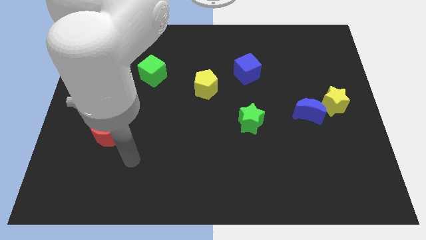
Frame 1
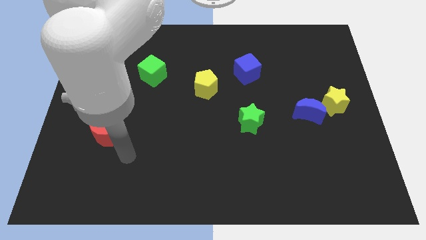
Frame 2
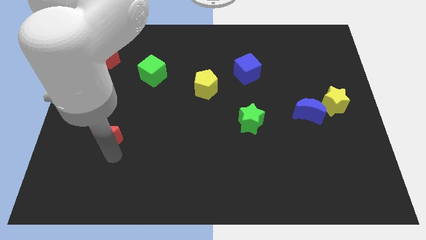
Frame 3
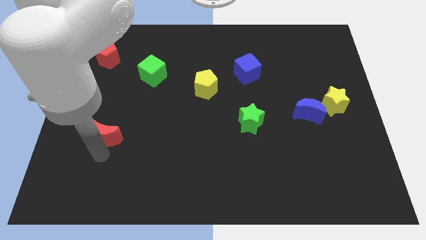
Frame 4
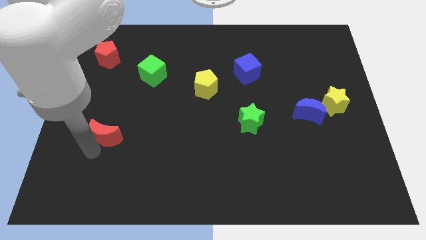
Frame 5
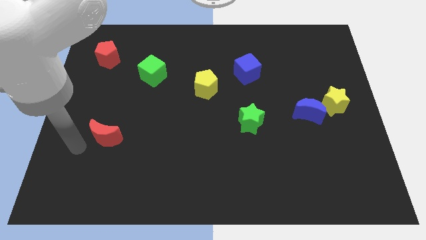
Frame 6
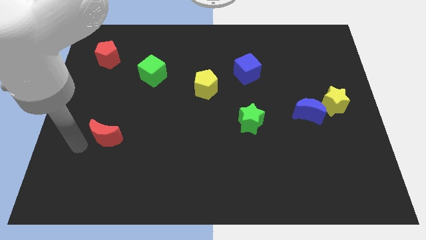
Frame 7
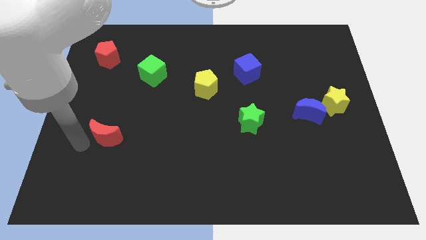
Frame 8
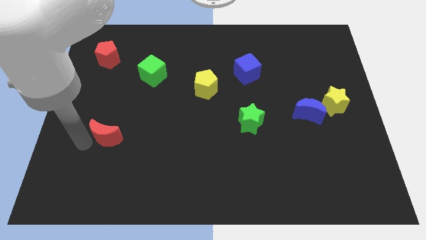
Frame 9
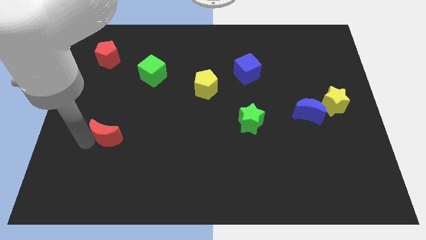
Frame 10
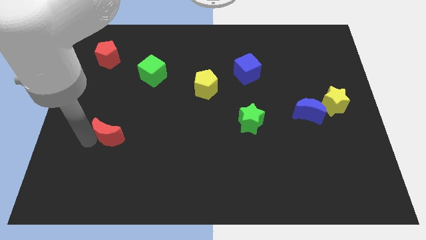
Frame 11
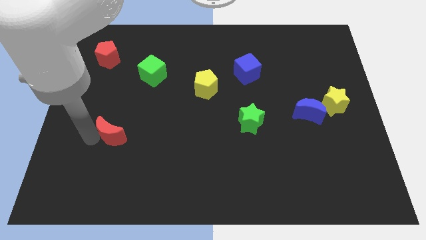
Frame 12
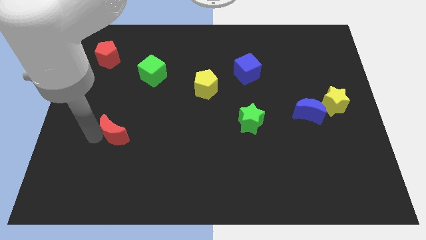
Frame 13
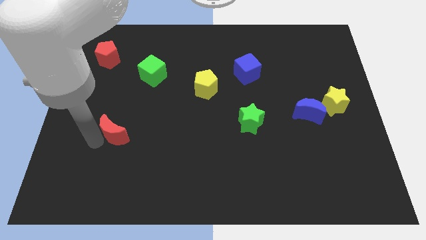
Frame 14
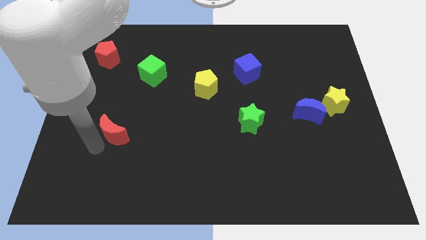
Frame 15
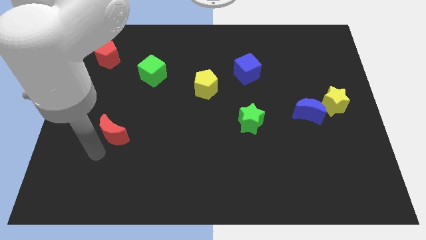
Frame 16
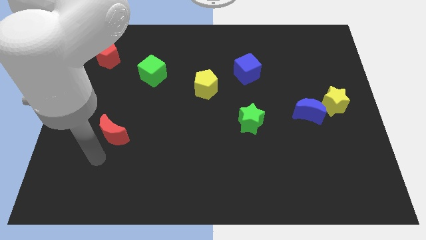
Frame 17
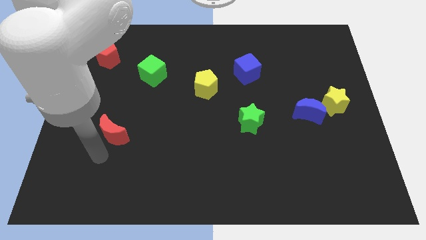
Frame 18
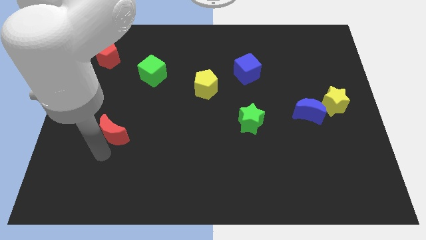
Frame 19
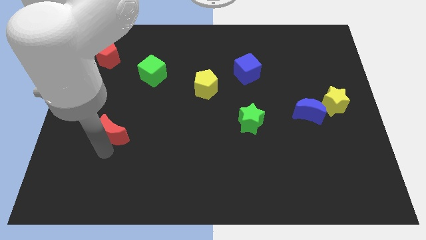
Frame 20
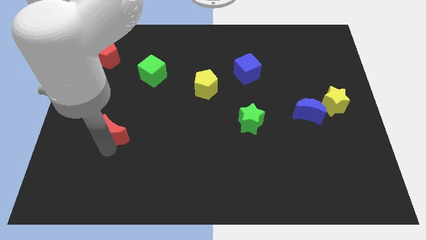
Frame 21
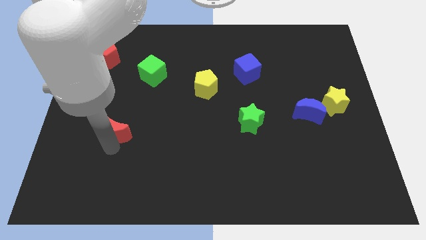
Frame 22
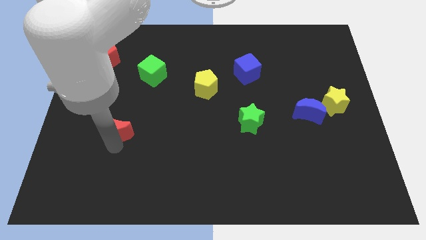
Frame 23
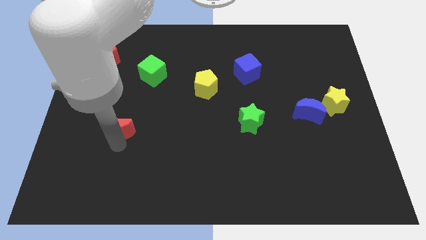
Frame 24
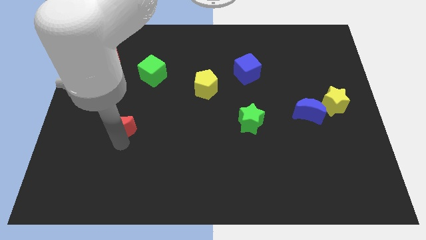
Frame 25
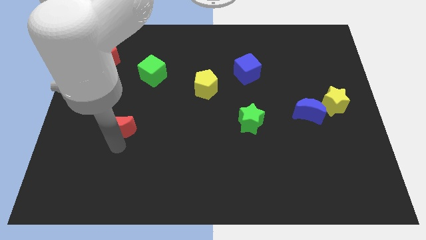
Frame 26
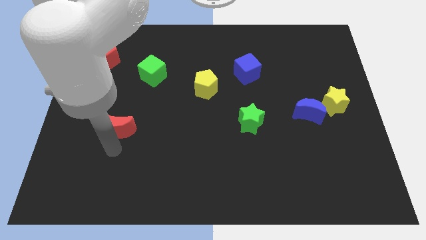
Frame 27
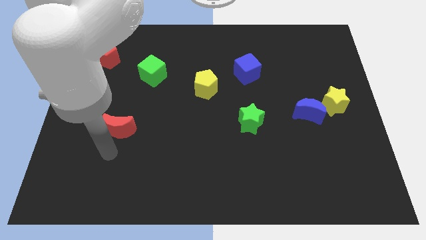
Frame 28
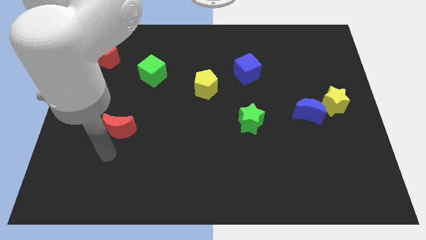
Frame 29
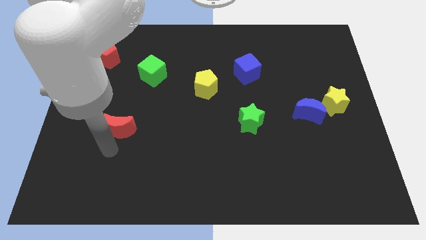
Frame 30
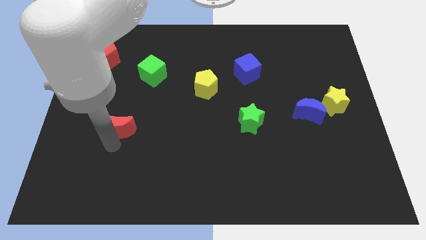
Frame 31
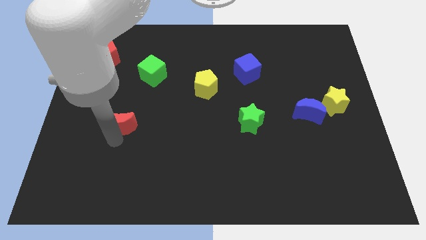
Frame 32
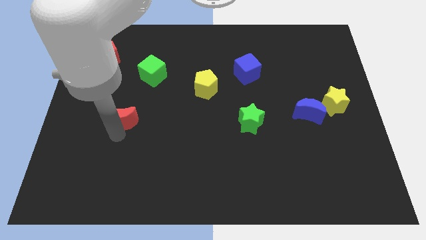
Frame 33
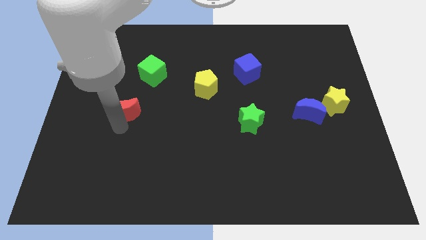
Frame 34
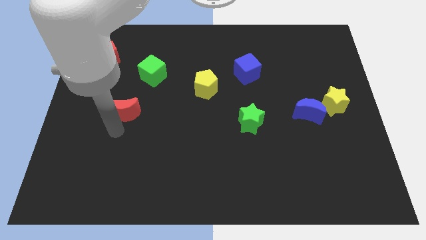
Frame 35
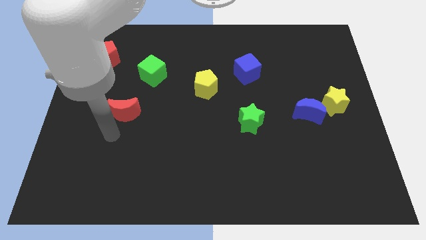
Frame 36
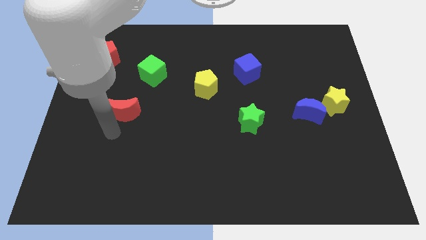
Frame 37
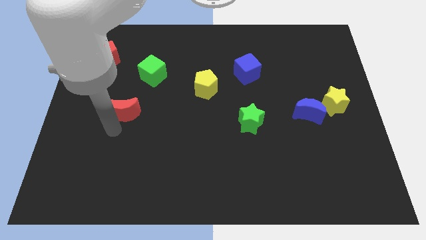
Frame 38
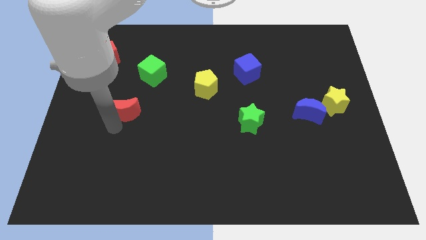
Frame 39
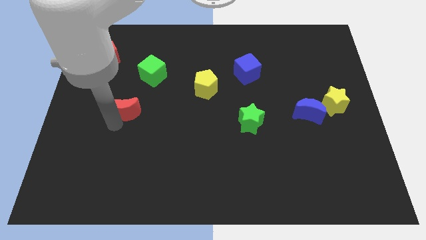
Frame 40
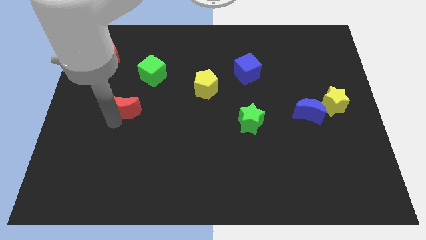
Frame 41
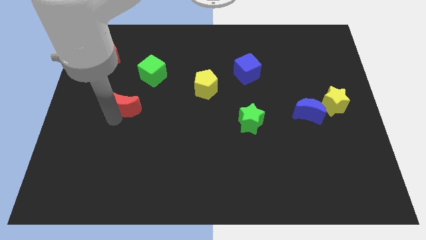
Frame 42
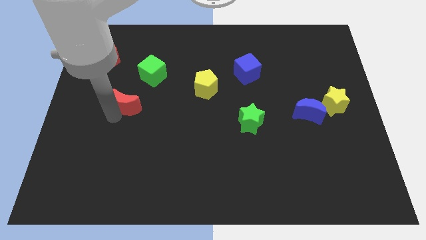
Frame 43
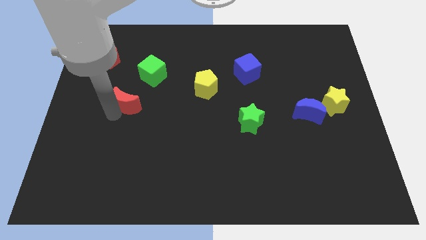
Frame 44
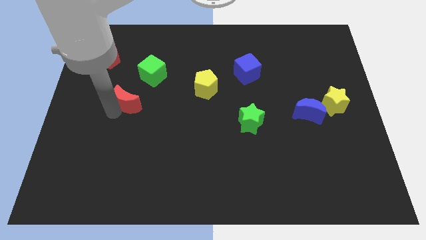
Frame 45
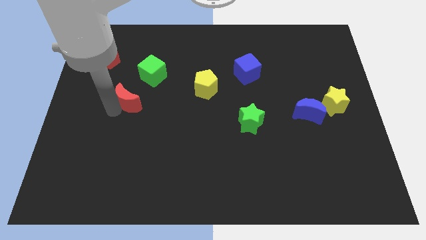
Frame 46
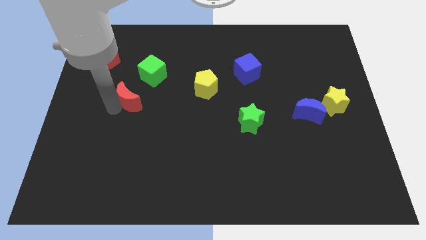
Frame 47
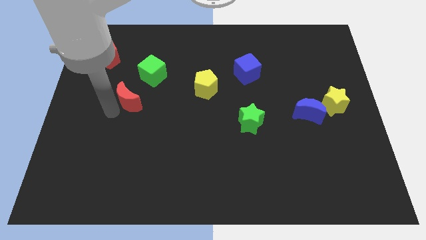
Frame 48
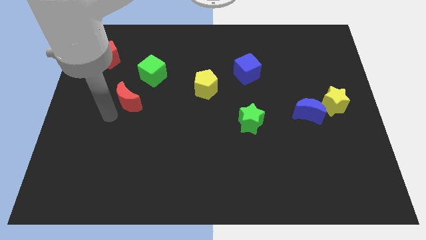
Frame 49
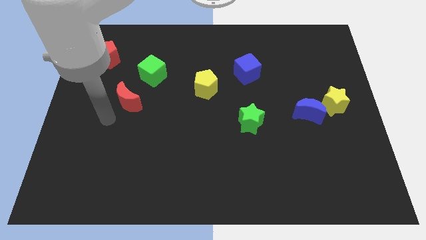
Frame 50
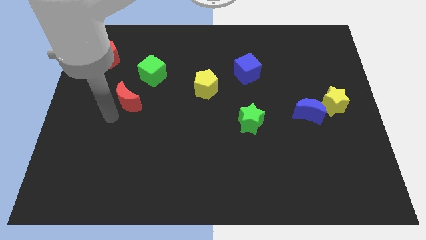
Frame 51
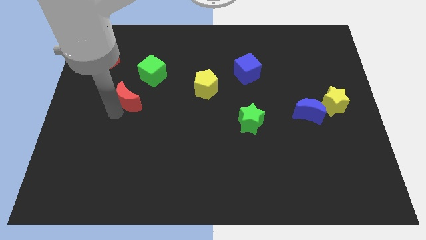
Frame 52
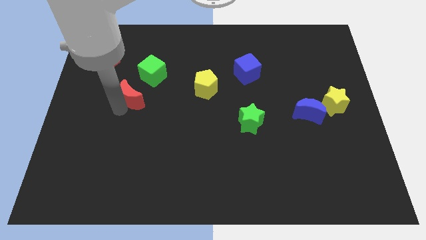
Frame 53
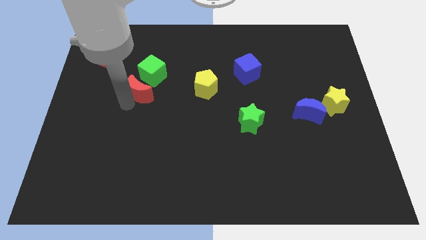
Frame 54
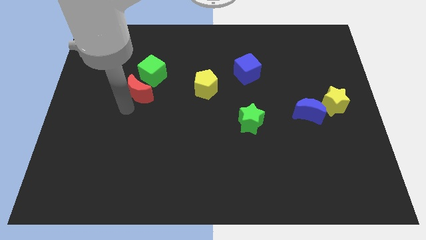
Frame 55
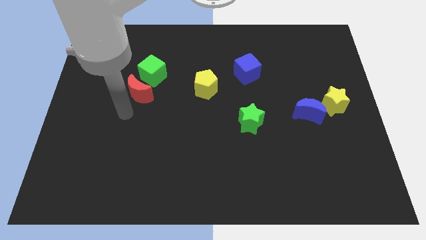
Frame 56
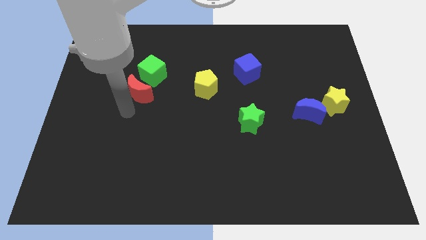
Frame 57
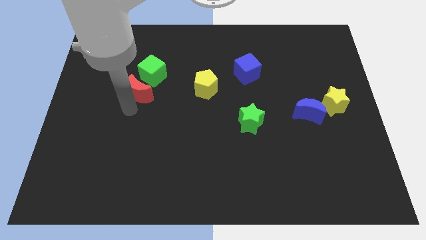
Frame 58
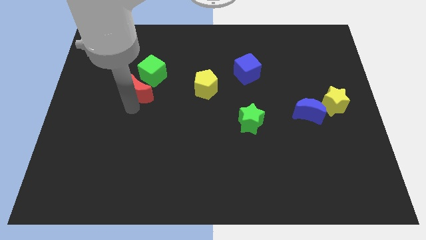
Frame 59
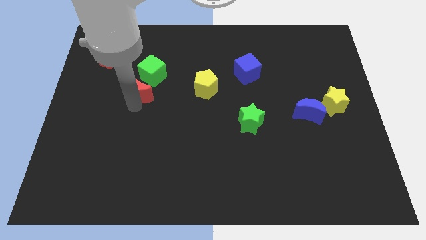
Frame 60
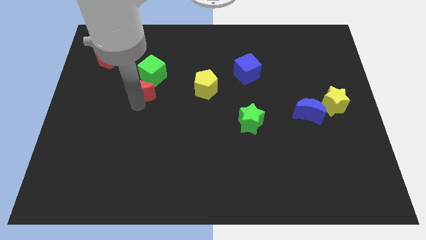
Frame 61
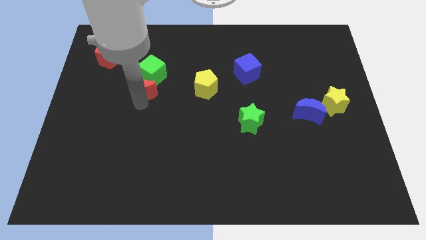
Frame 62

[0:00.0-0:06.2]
slide the red moon next to the green cube

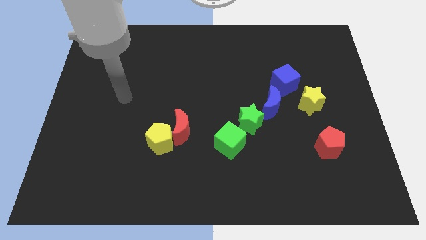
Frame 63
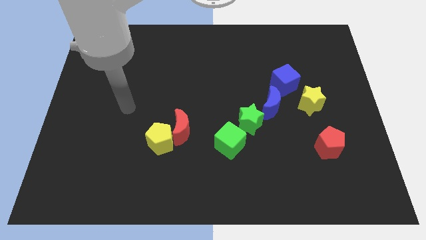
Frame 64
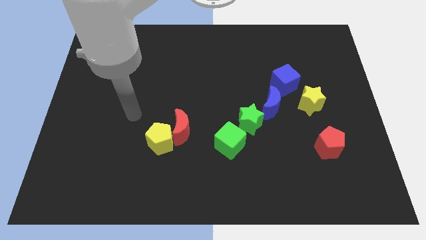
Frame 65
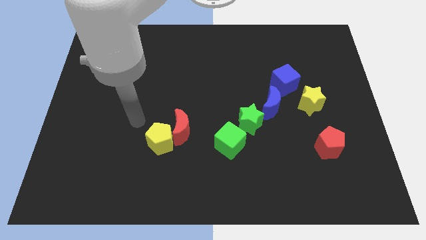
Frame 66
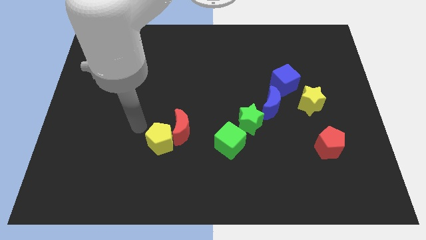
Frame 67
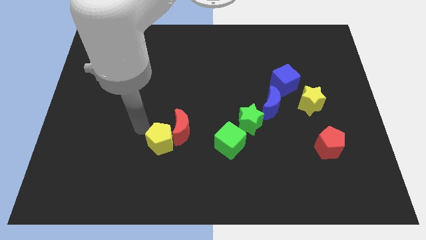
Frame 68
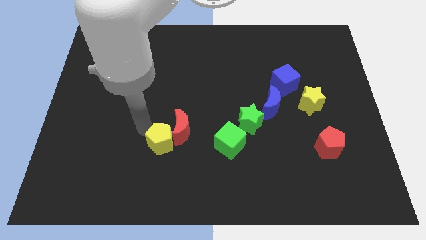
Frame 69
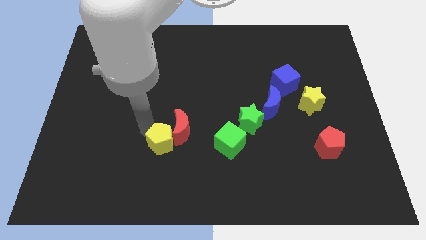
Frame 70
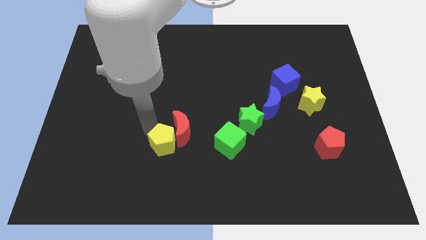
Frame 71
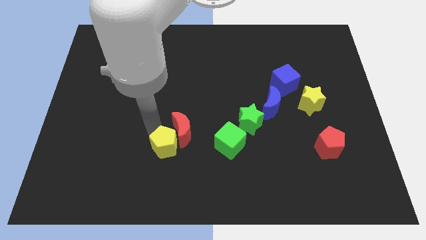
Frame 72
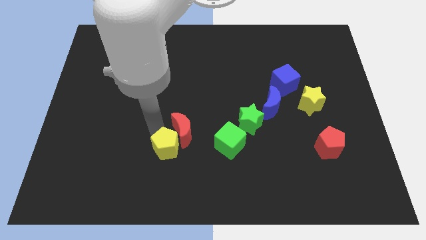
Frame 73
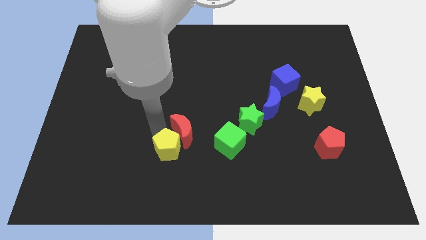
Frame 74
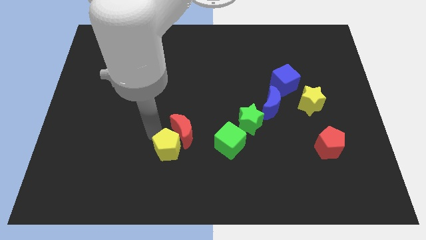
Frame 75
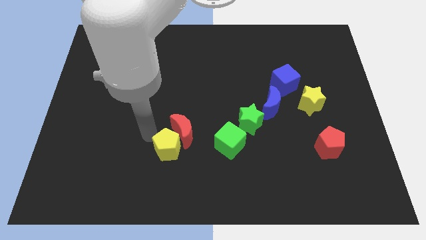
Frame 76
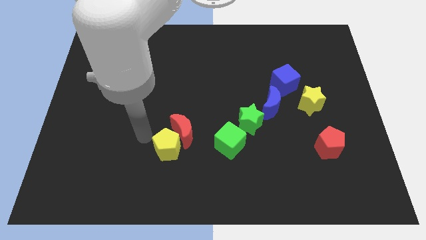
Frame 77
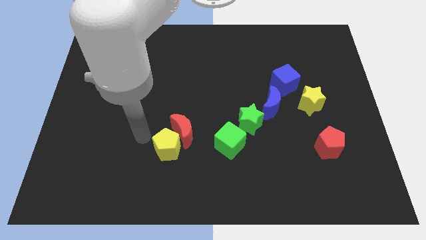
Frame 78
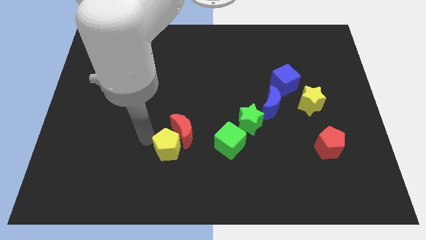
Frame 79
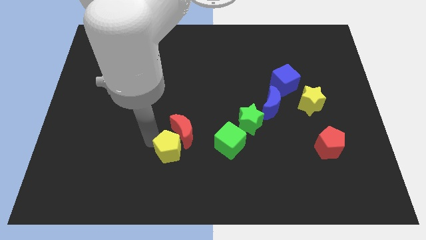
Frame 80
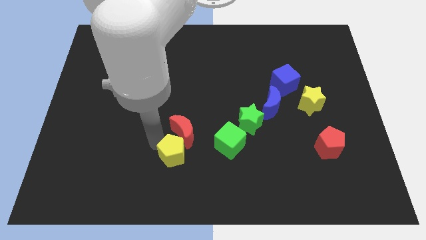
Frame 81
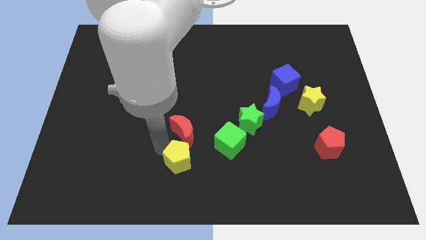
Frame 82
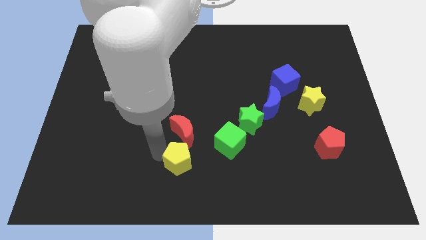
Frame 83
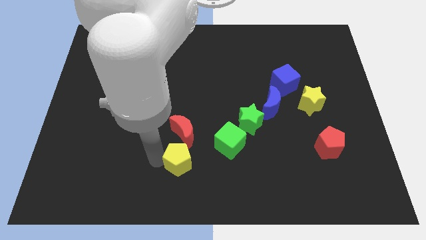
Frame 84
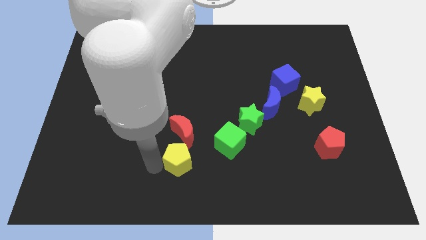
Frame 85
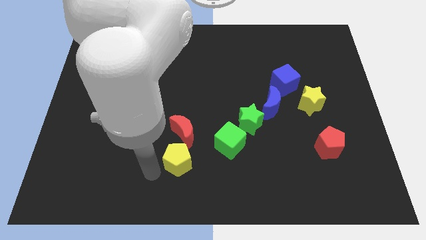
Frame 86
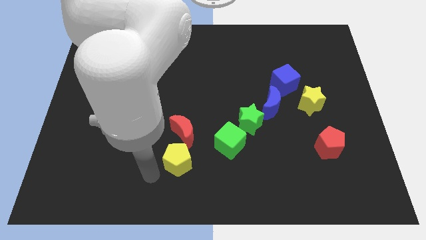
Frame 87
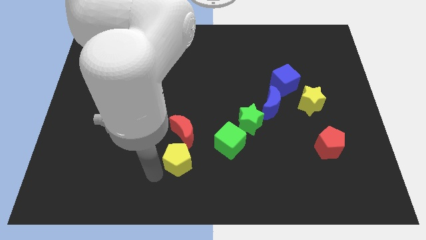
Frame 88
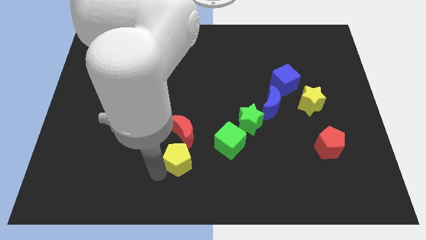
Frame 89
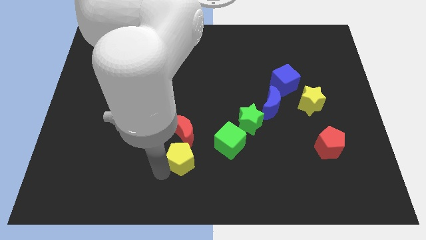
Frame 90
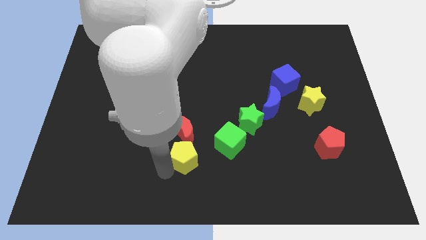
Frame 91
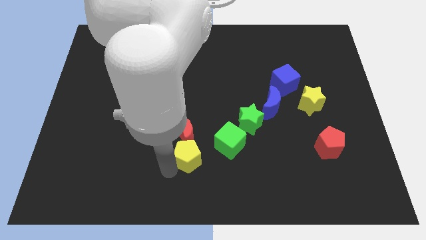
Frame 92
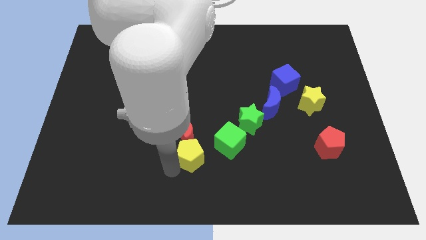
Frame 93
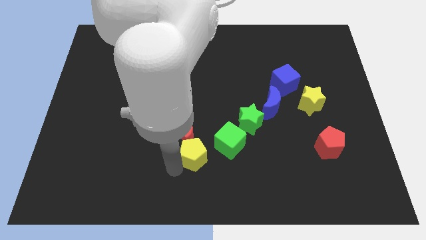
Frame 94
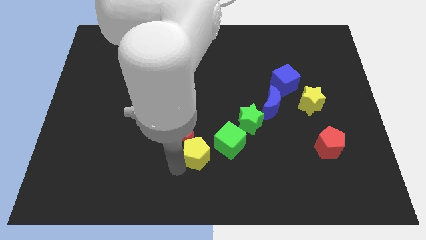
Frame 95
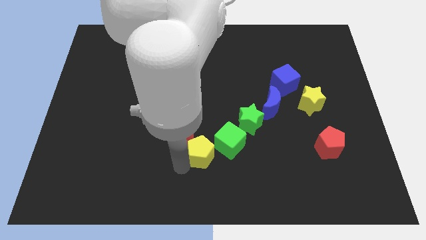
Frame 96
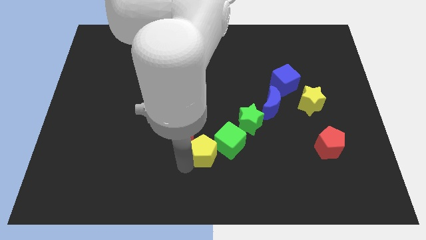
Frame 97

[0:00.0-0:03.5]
put the yellow pentagon next to the green cube
